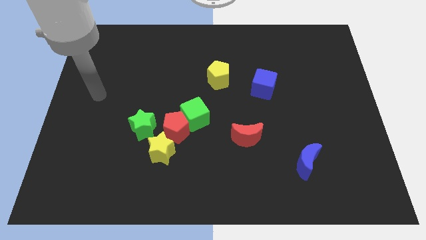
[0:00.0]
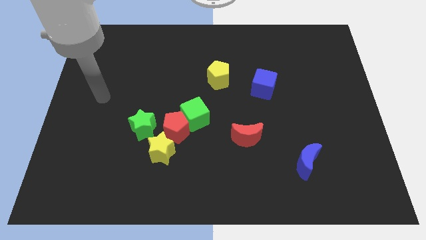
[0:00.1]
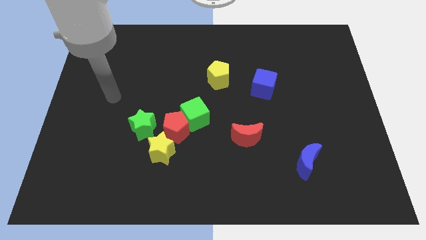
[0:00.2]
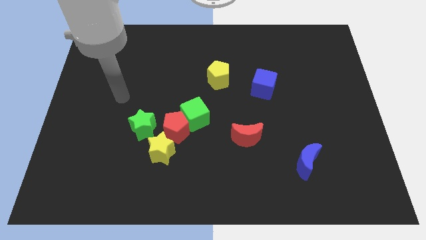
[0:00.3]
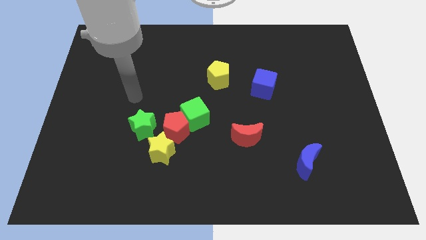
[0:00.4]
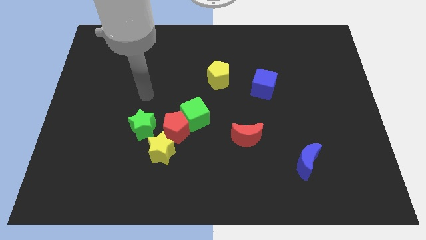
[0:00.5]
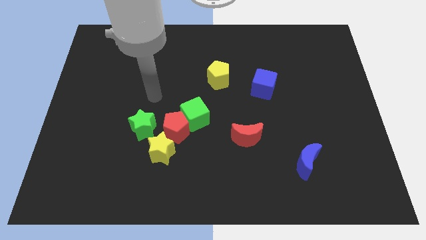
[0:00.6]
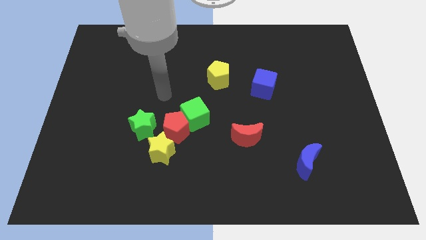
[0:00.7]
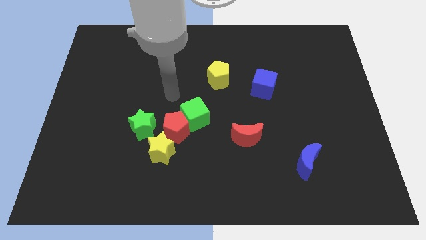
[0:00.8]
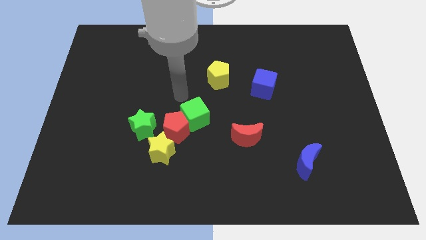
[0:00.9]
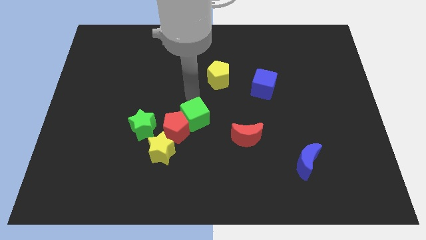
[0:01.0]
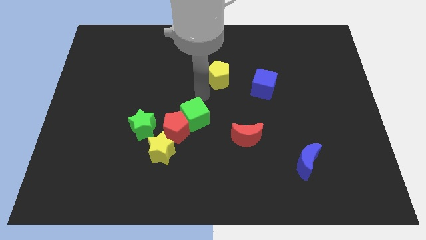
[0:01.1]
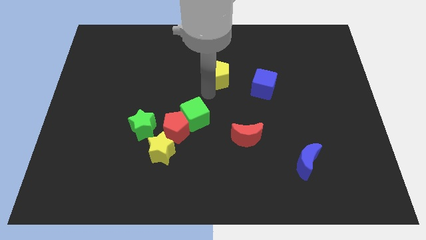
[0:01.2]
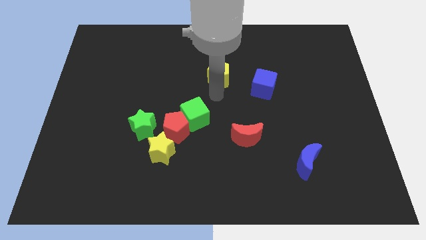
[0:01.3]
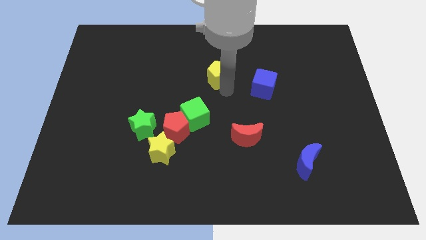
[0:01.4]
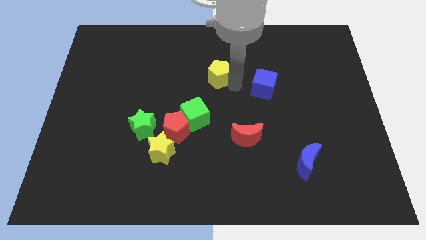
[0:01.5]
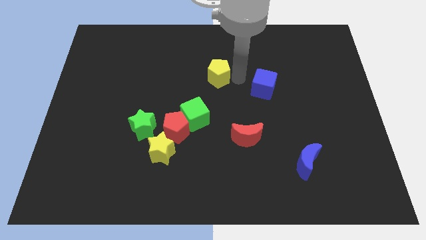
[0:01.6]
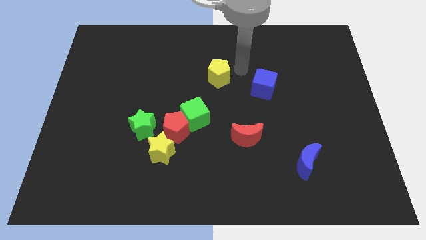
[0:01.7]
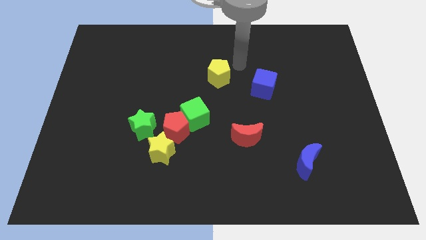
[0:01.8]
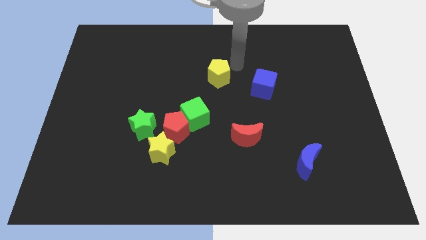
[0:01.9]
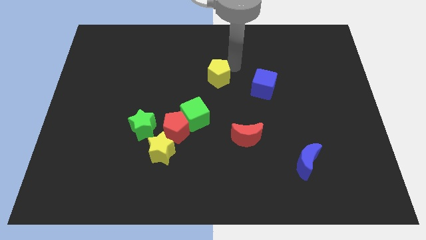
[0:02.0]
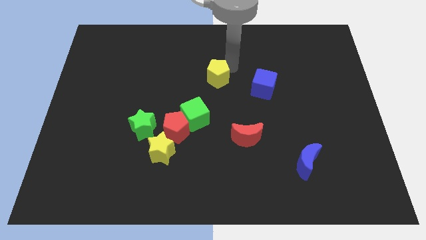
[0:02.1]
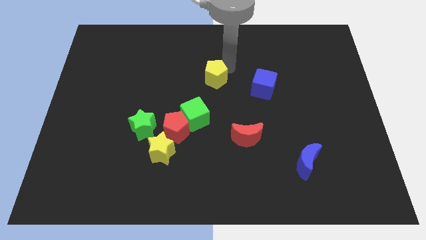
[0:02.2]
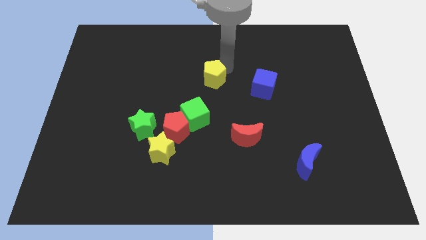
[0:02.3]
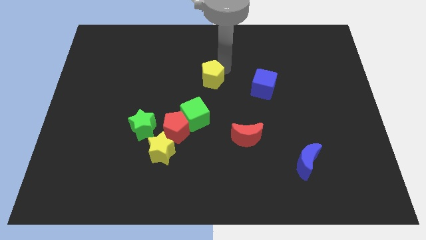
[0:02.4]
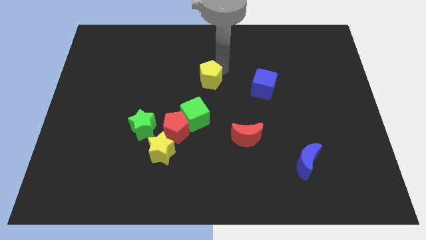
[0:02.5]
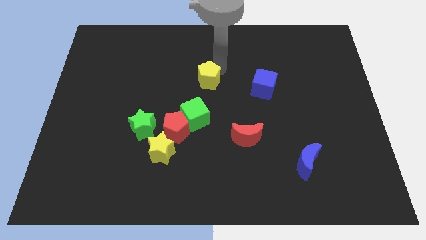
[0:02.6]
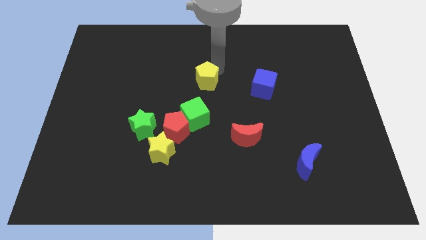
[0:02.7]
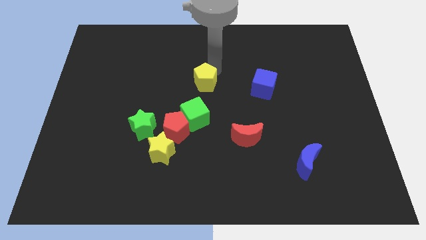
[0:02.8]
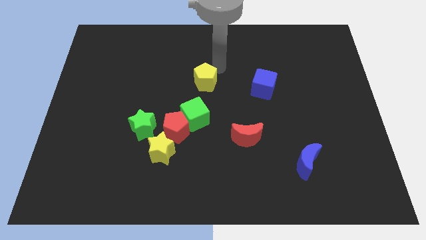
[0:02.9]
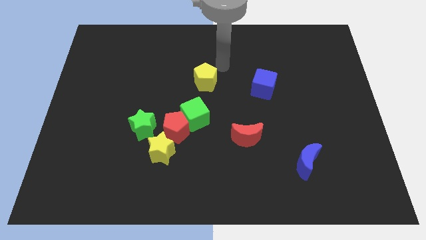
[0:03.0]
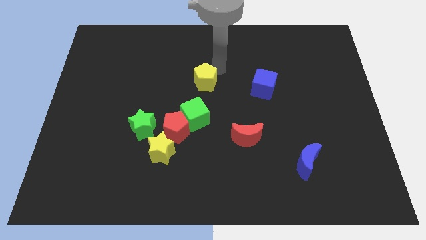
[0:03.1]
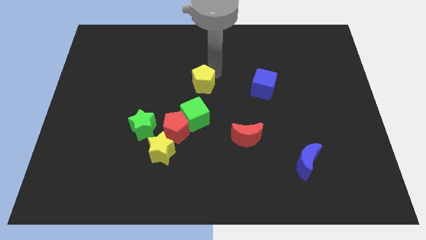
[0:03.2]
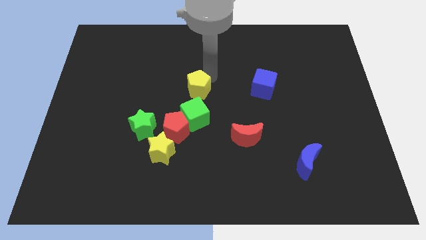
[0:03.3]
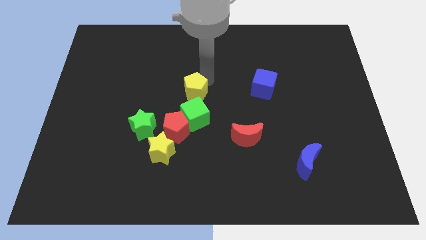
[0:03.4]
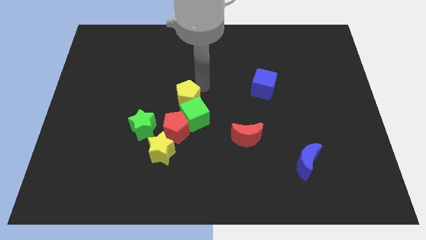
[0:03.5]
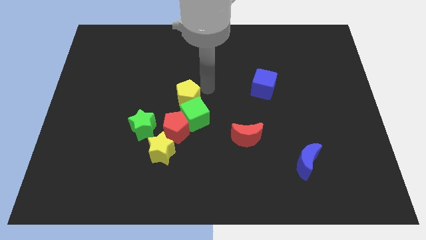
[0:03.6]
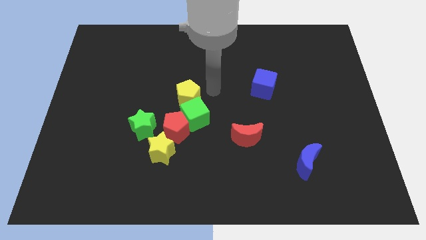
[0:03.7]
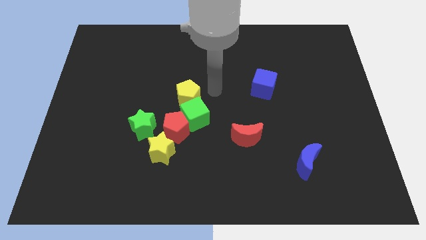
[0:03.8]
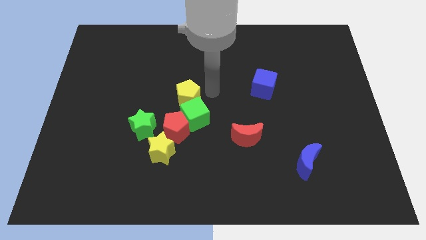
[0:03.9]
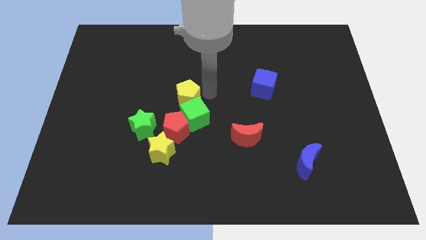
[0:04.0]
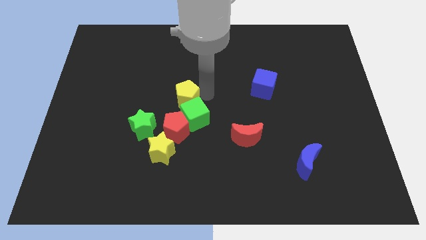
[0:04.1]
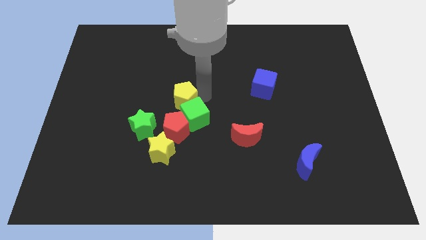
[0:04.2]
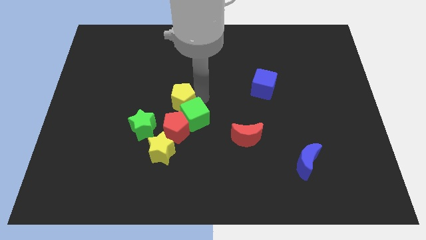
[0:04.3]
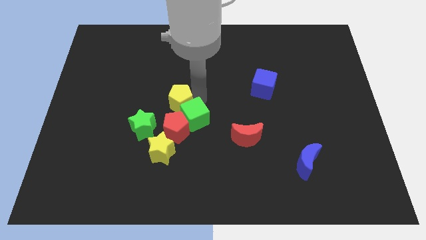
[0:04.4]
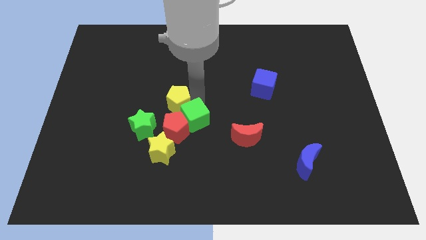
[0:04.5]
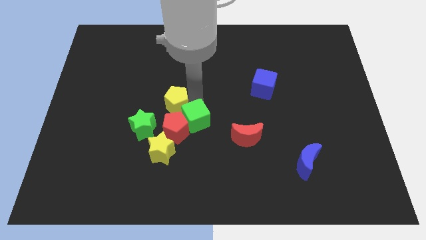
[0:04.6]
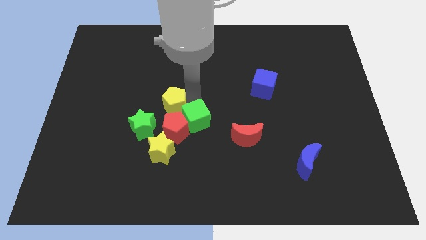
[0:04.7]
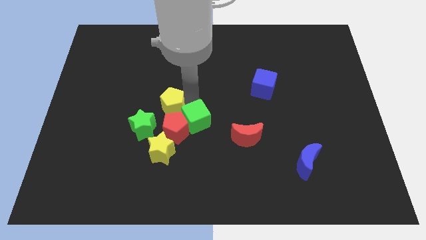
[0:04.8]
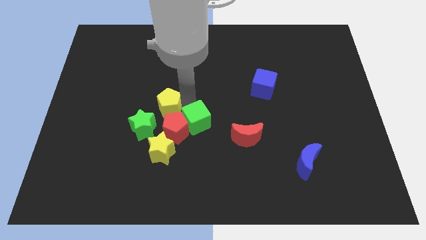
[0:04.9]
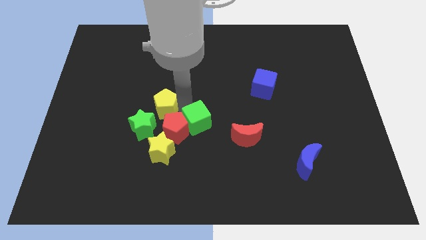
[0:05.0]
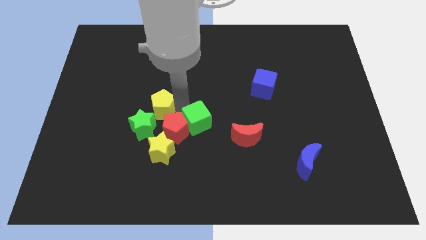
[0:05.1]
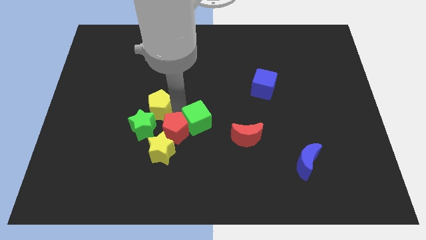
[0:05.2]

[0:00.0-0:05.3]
move the yellow pentagon towards the green star

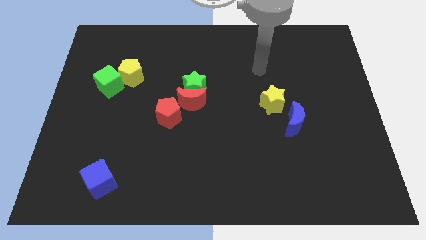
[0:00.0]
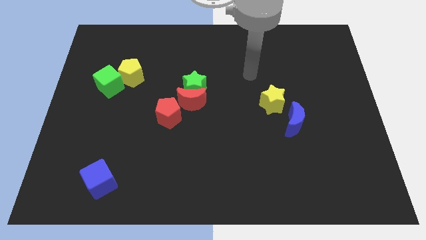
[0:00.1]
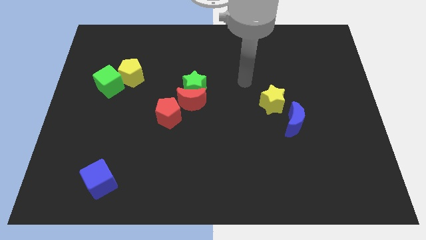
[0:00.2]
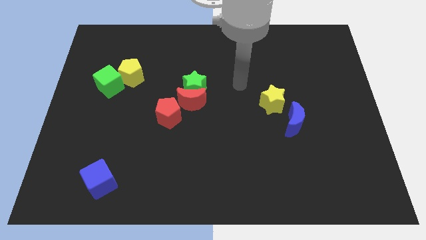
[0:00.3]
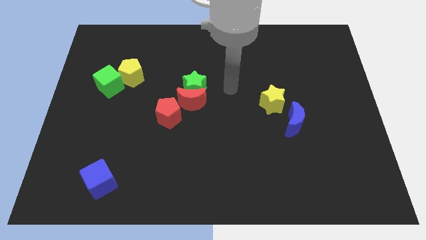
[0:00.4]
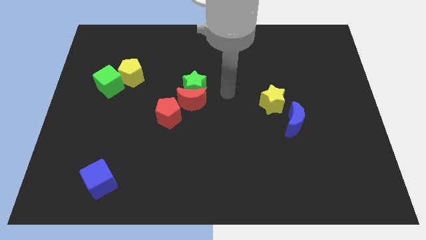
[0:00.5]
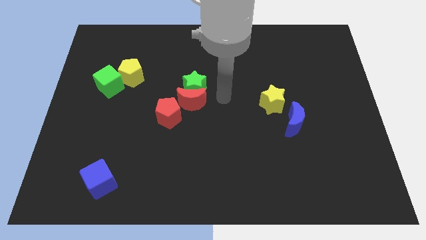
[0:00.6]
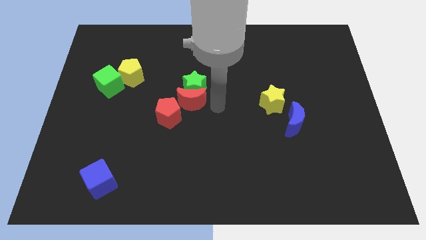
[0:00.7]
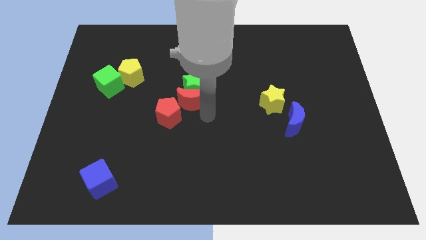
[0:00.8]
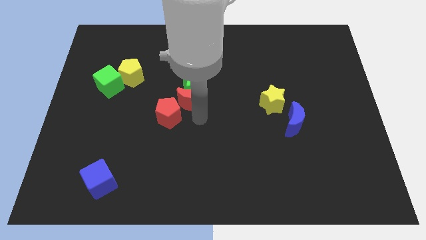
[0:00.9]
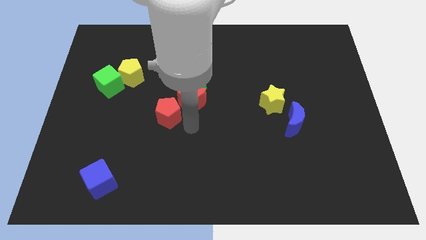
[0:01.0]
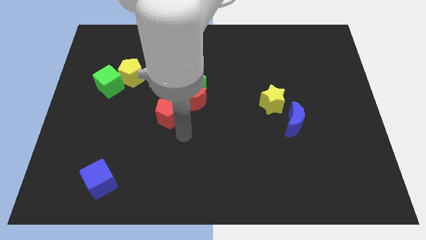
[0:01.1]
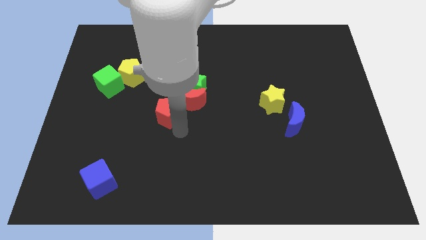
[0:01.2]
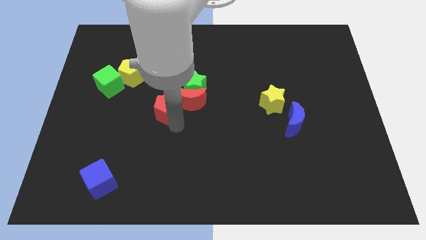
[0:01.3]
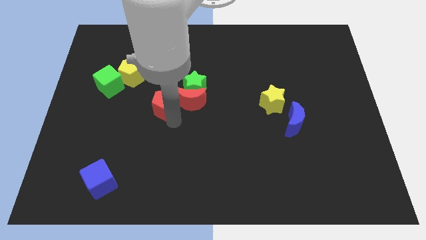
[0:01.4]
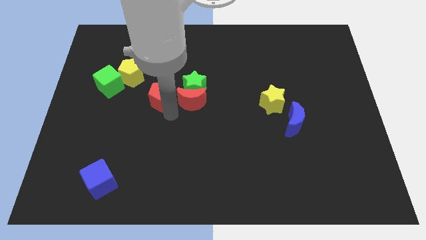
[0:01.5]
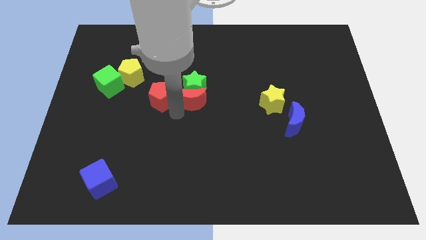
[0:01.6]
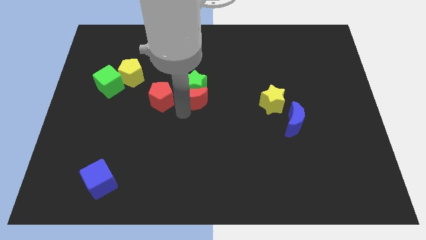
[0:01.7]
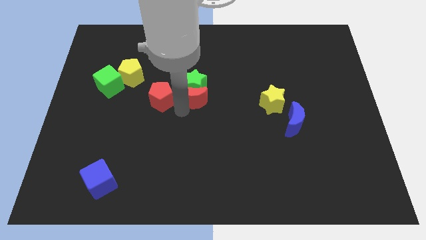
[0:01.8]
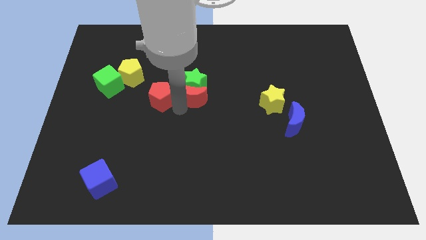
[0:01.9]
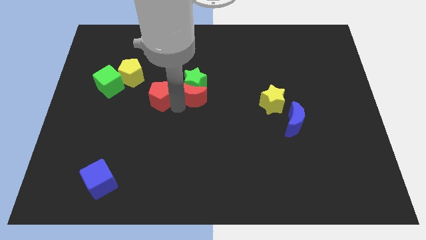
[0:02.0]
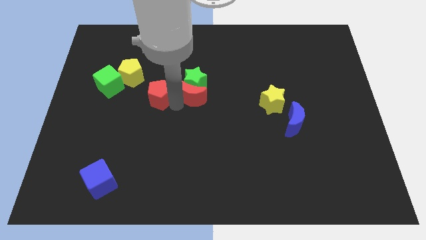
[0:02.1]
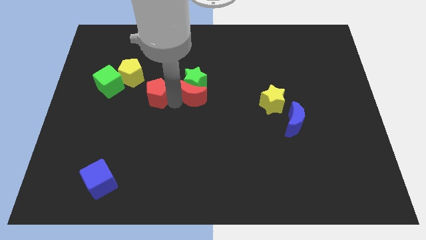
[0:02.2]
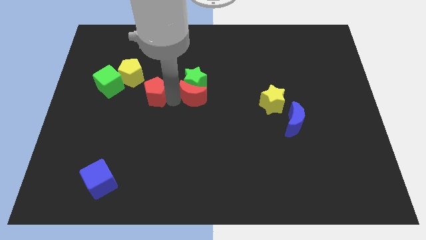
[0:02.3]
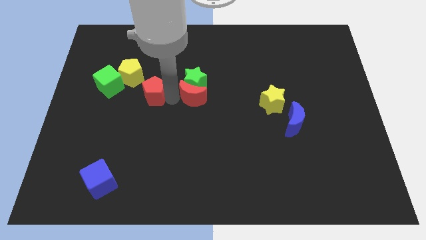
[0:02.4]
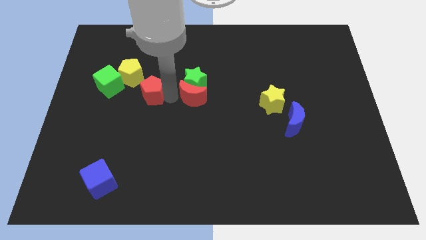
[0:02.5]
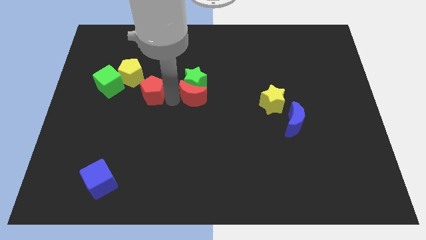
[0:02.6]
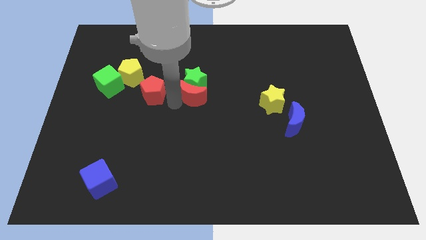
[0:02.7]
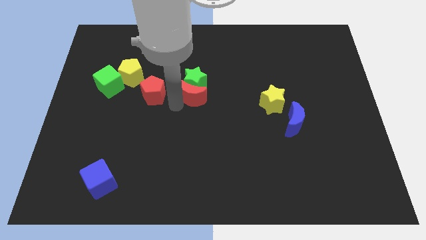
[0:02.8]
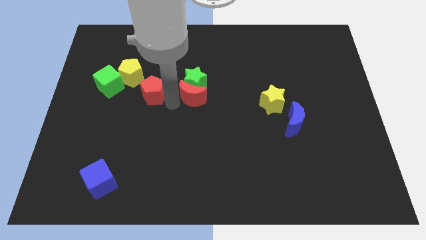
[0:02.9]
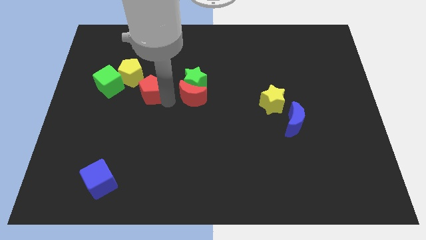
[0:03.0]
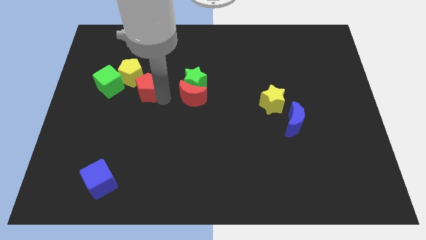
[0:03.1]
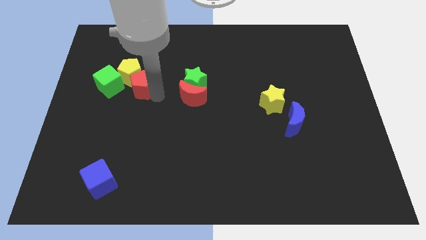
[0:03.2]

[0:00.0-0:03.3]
push the red pentagon next to the yellow pentagon
